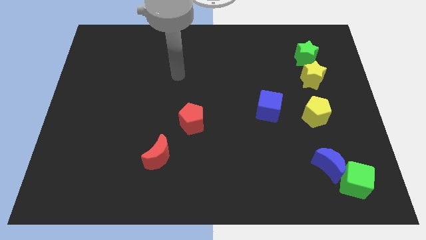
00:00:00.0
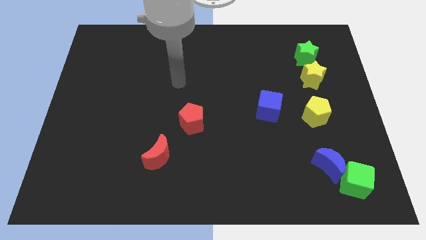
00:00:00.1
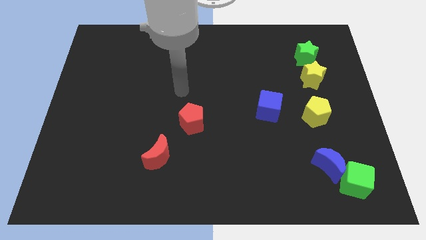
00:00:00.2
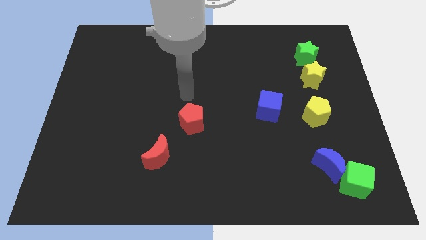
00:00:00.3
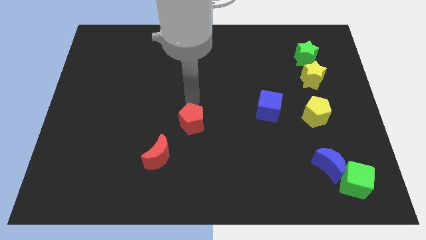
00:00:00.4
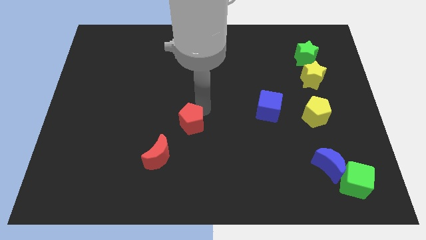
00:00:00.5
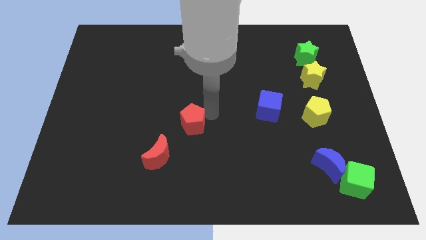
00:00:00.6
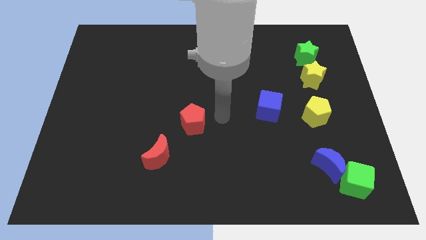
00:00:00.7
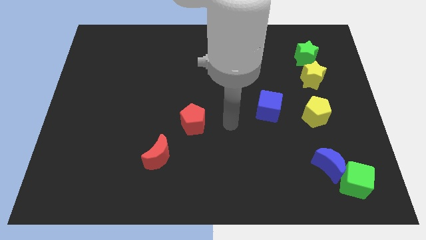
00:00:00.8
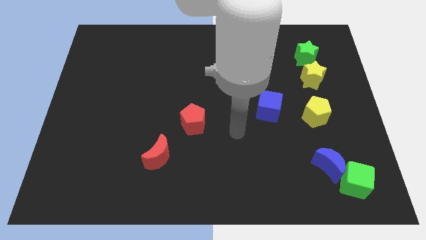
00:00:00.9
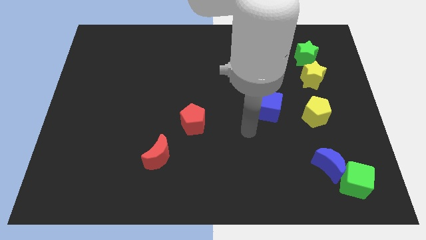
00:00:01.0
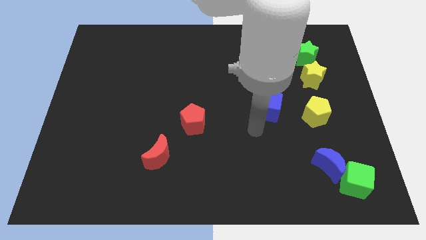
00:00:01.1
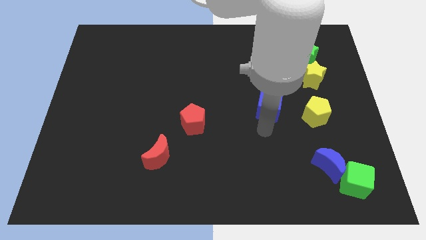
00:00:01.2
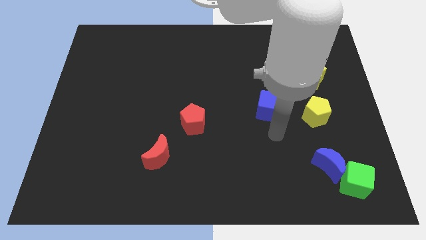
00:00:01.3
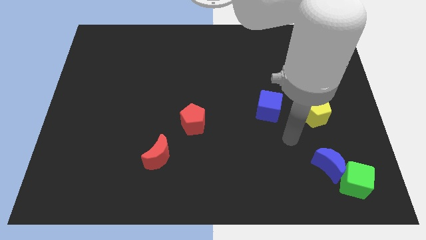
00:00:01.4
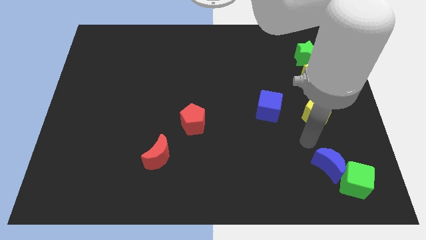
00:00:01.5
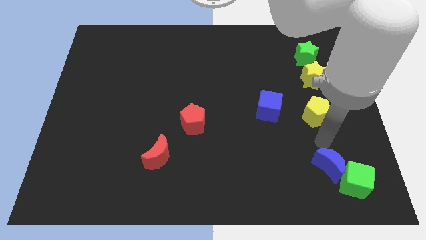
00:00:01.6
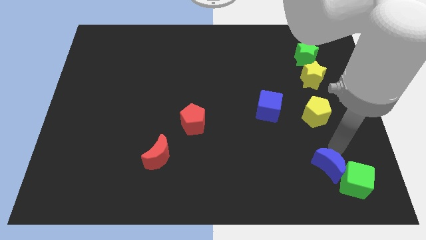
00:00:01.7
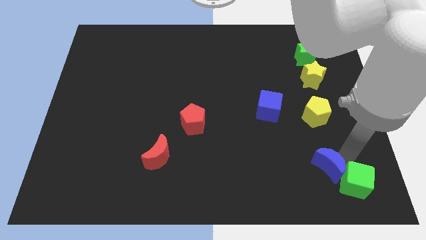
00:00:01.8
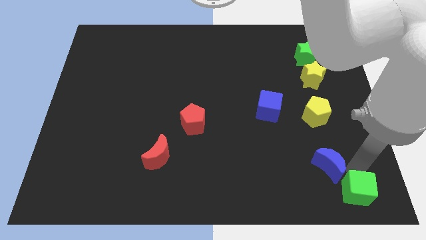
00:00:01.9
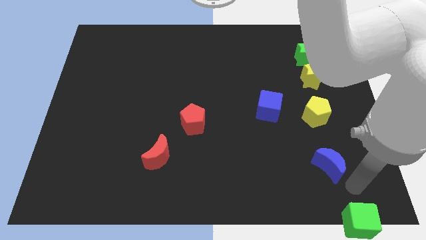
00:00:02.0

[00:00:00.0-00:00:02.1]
move the blue moon away from the green cube

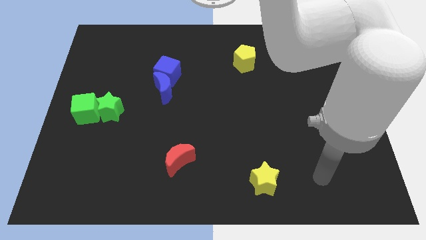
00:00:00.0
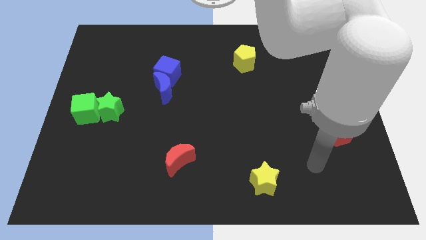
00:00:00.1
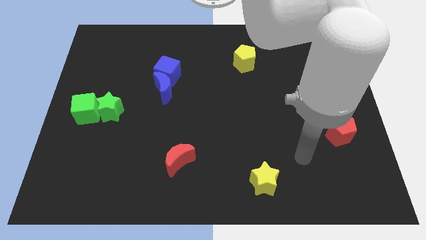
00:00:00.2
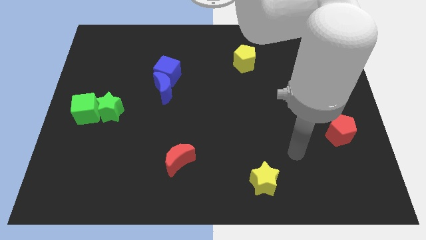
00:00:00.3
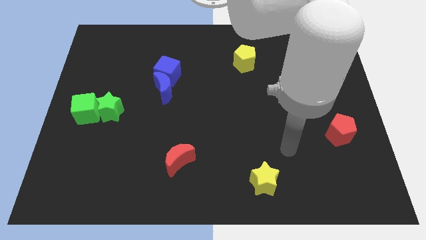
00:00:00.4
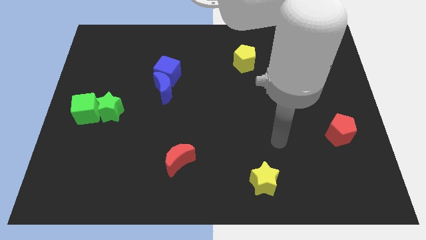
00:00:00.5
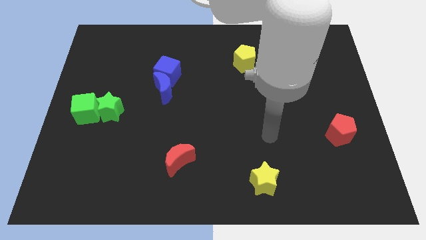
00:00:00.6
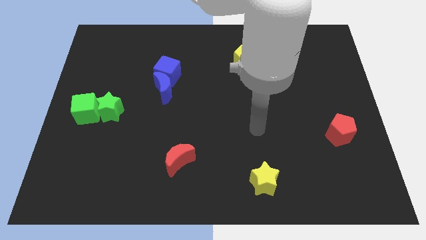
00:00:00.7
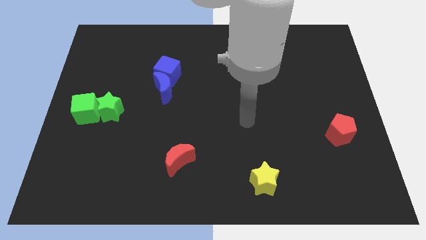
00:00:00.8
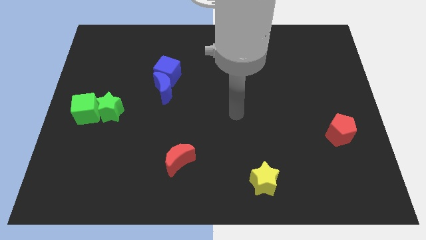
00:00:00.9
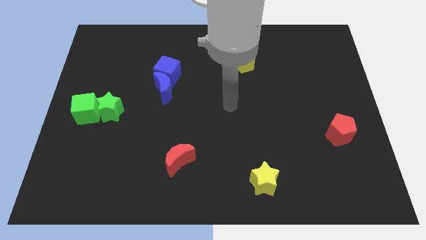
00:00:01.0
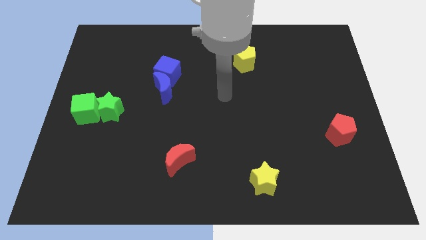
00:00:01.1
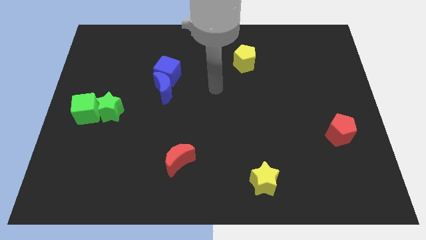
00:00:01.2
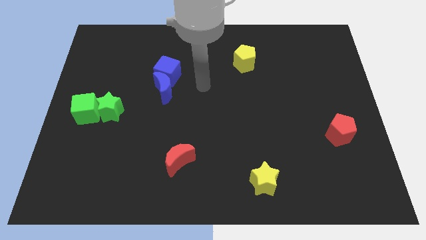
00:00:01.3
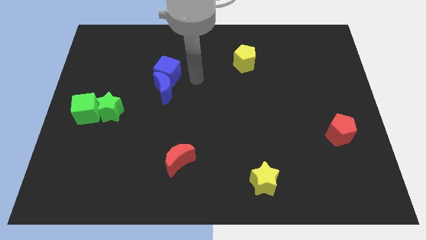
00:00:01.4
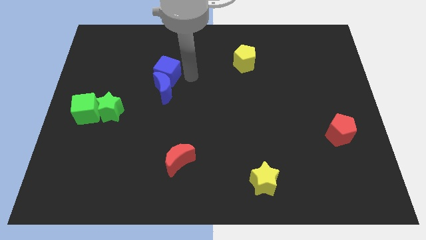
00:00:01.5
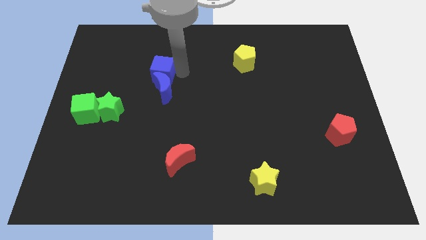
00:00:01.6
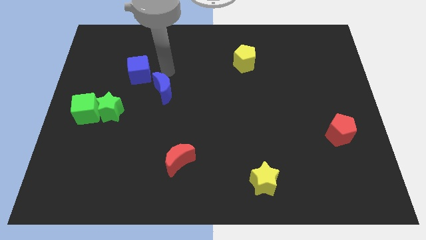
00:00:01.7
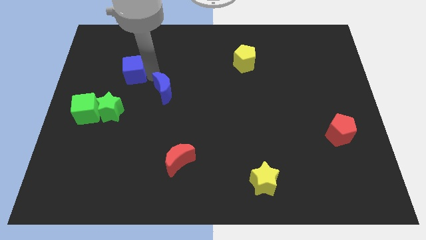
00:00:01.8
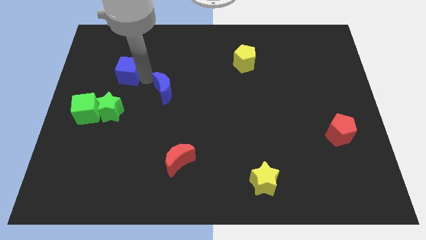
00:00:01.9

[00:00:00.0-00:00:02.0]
separate the blue moon from the blue cube

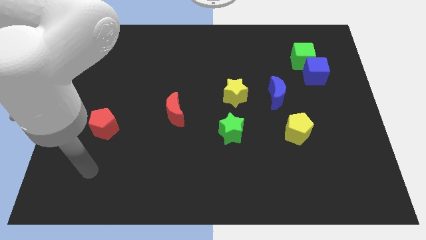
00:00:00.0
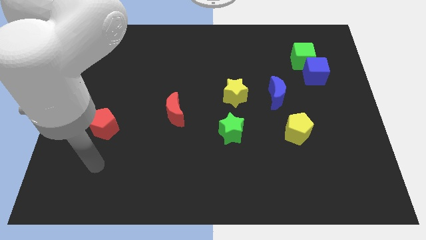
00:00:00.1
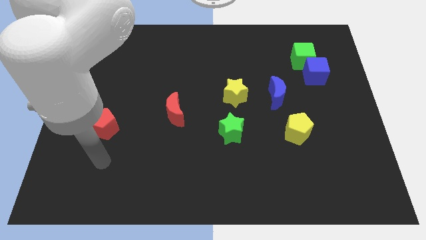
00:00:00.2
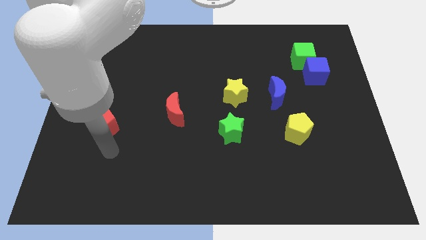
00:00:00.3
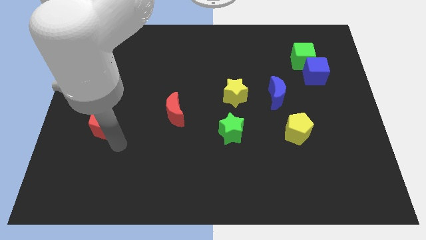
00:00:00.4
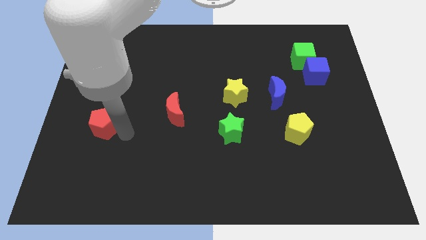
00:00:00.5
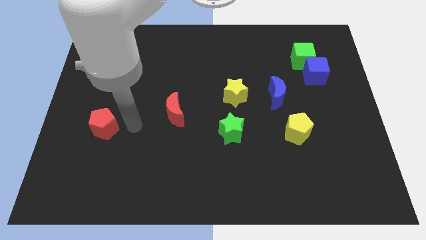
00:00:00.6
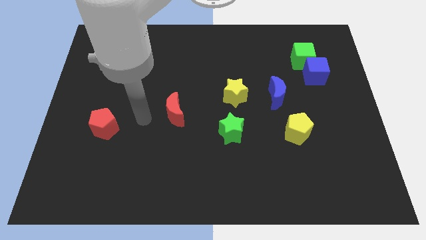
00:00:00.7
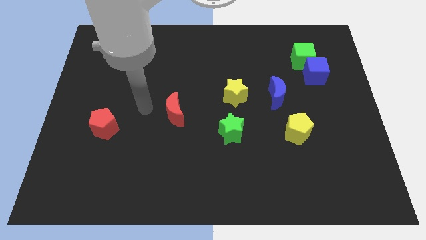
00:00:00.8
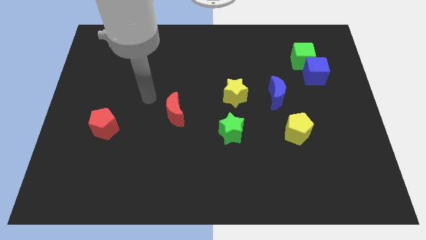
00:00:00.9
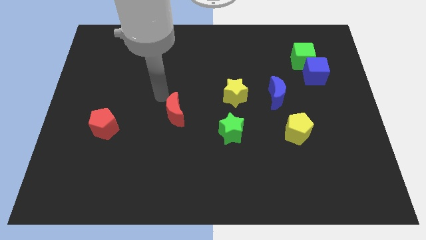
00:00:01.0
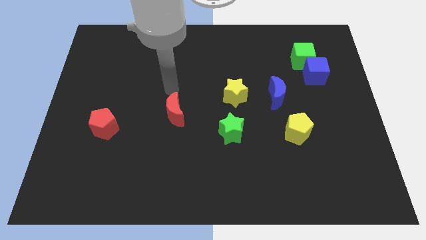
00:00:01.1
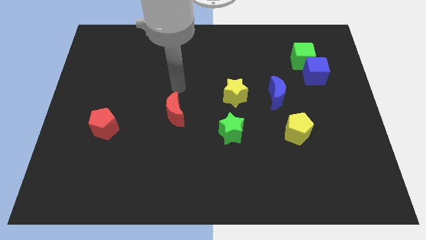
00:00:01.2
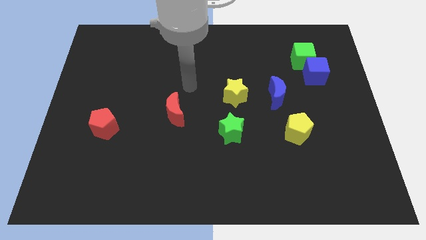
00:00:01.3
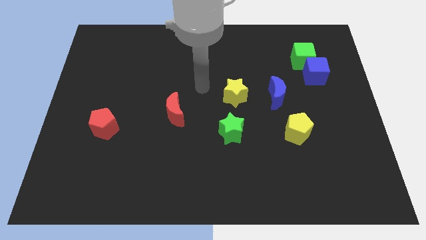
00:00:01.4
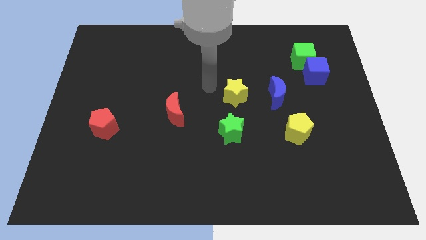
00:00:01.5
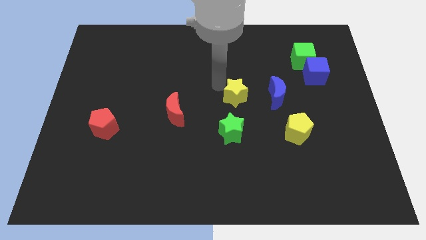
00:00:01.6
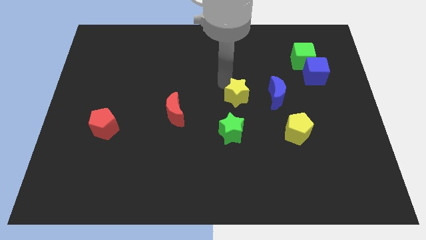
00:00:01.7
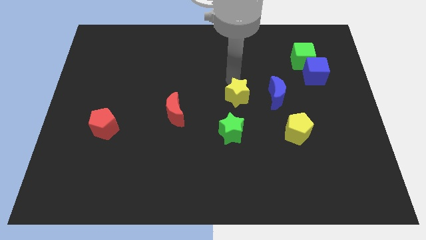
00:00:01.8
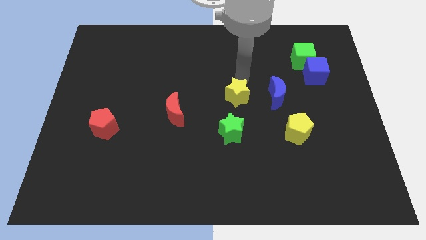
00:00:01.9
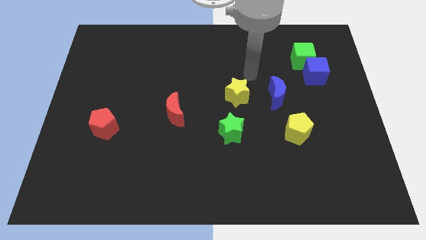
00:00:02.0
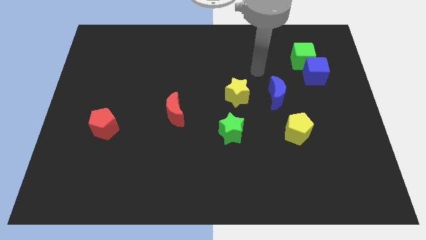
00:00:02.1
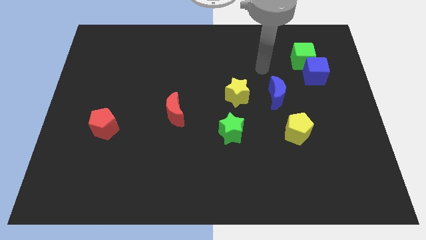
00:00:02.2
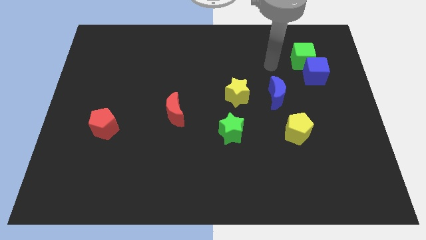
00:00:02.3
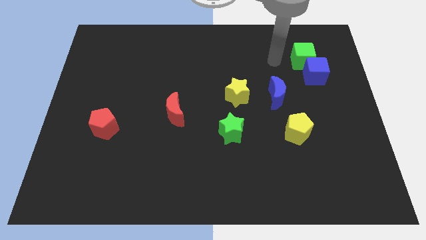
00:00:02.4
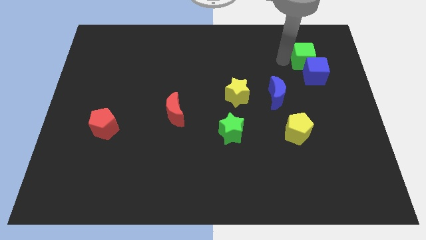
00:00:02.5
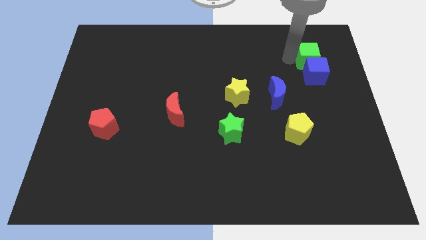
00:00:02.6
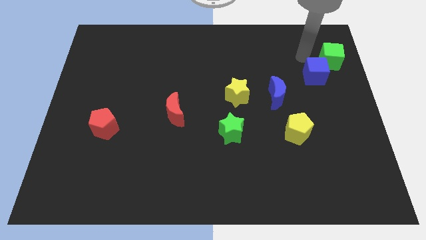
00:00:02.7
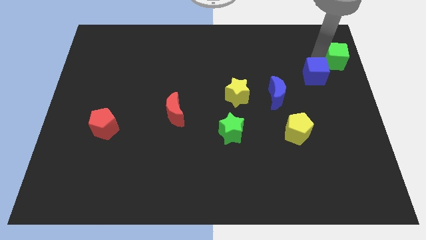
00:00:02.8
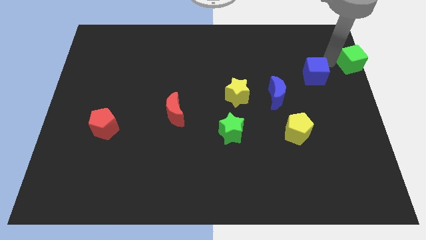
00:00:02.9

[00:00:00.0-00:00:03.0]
separate the blue cube from the green cube

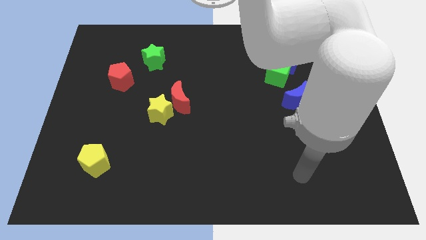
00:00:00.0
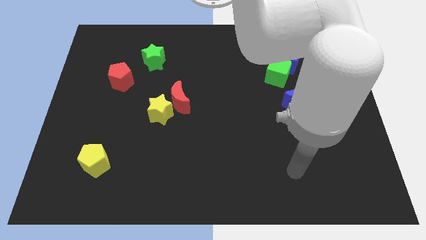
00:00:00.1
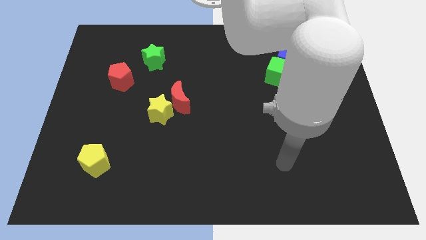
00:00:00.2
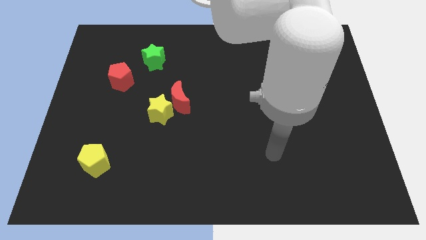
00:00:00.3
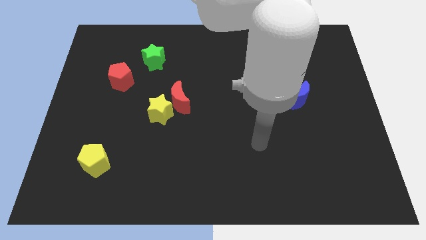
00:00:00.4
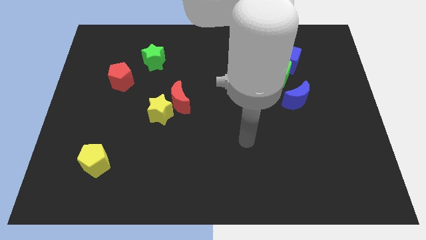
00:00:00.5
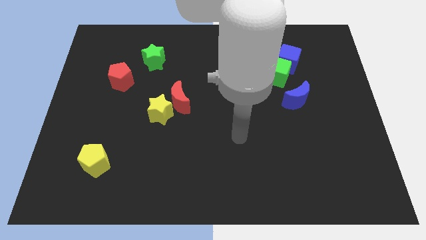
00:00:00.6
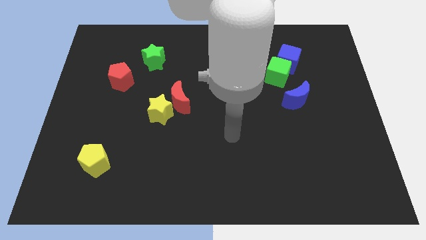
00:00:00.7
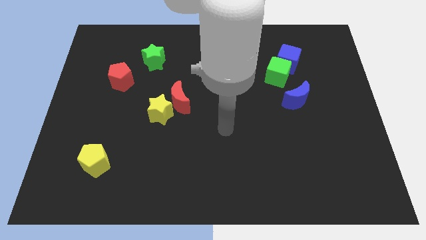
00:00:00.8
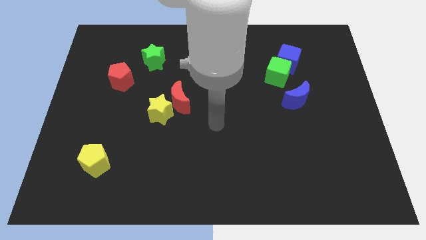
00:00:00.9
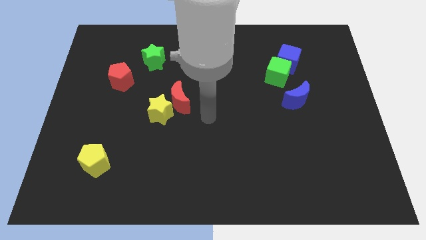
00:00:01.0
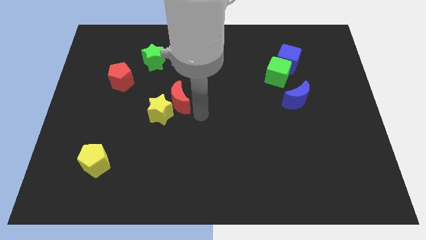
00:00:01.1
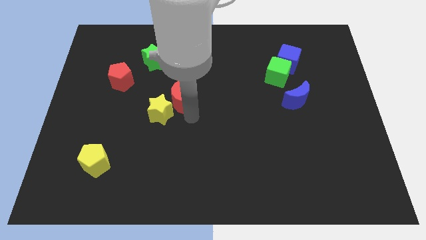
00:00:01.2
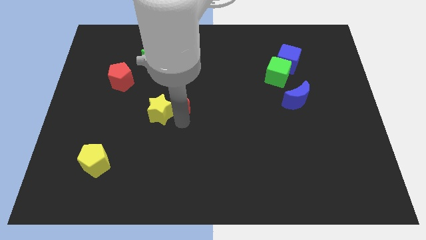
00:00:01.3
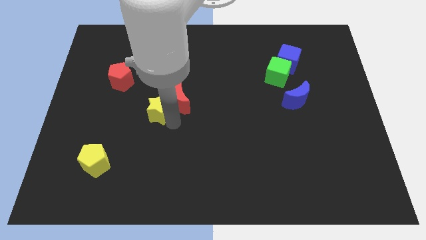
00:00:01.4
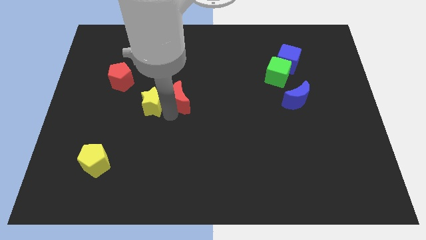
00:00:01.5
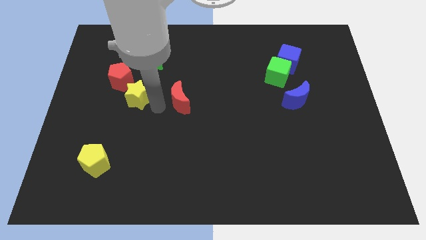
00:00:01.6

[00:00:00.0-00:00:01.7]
pull the red moon apart from the yellow star

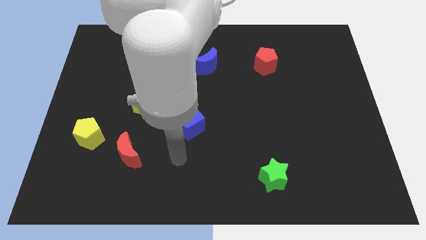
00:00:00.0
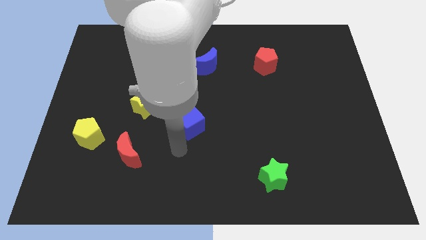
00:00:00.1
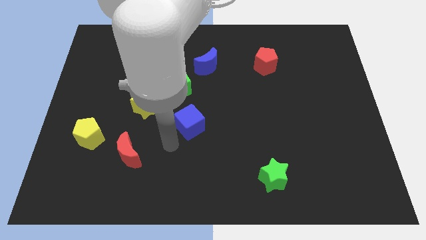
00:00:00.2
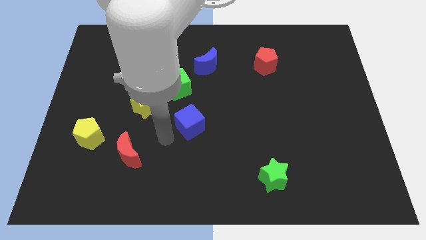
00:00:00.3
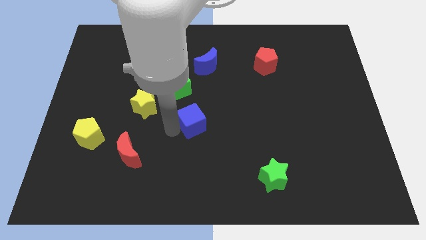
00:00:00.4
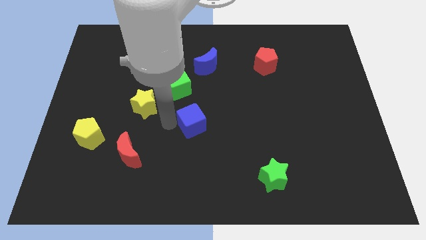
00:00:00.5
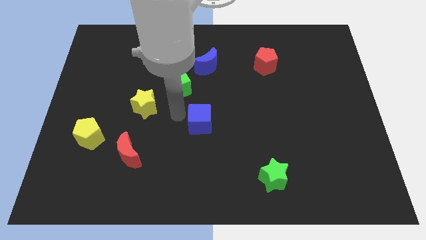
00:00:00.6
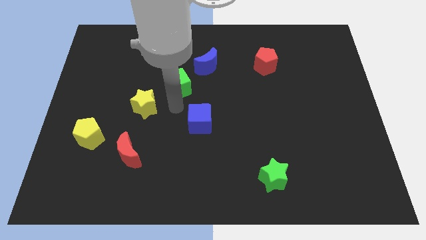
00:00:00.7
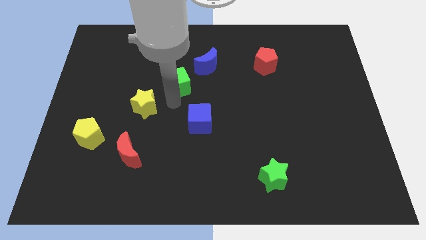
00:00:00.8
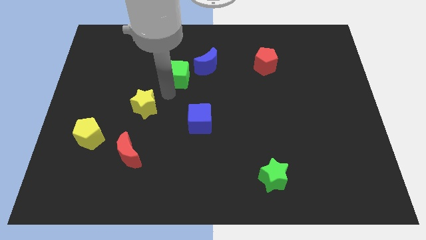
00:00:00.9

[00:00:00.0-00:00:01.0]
pull the yellow star apart from the green cube
